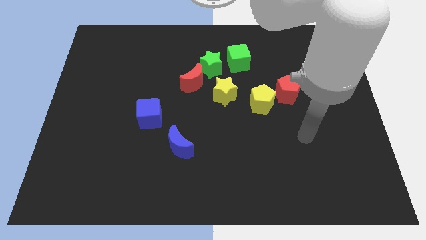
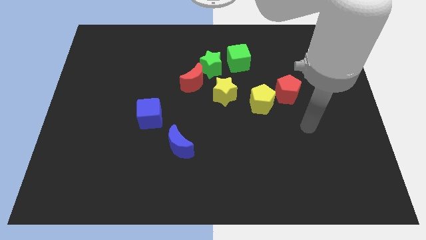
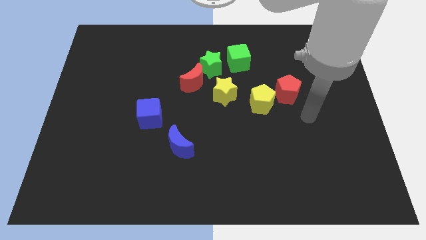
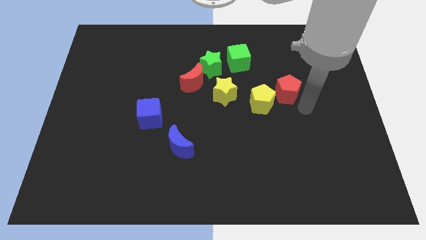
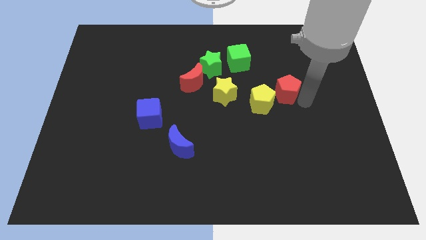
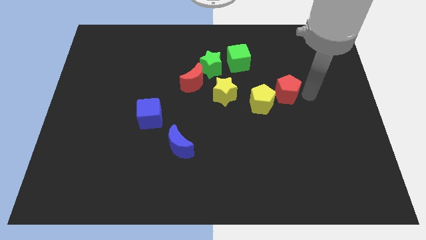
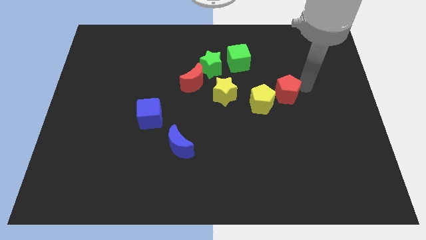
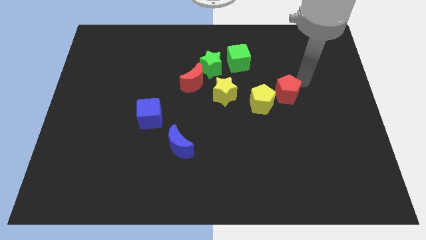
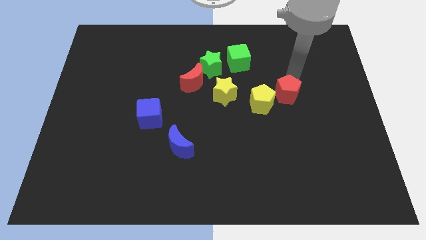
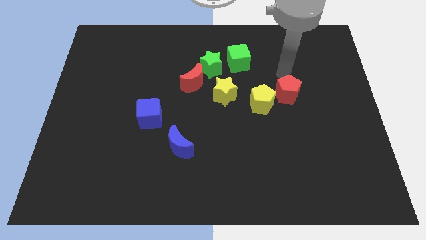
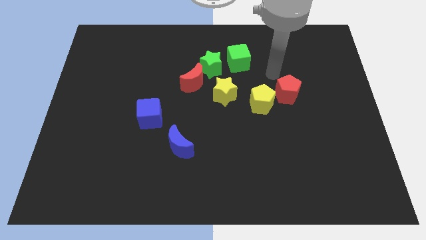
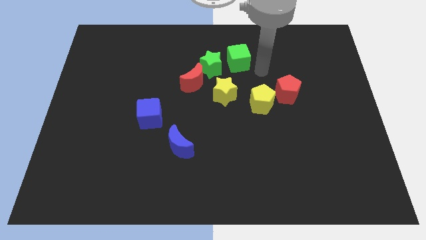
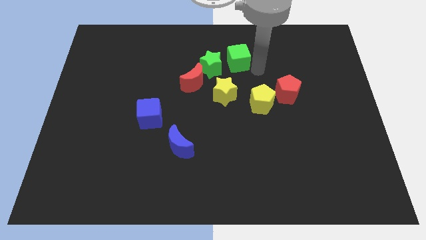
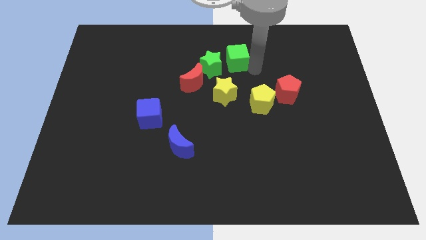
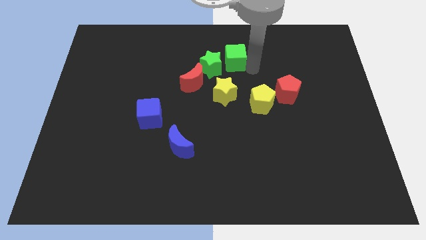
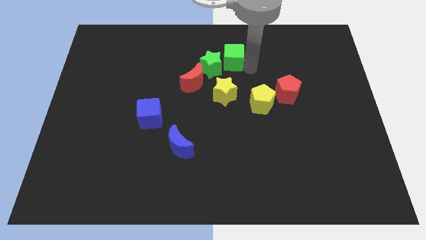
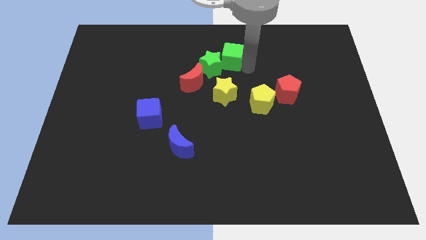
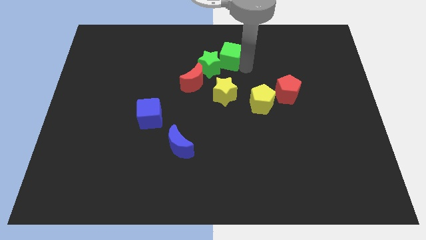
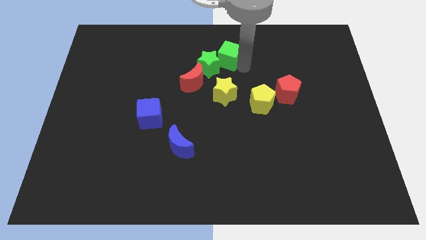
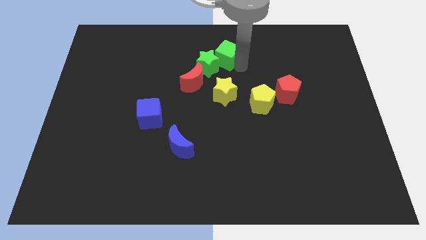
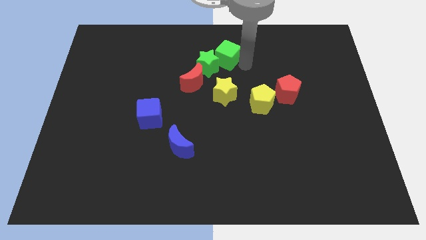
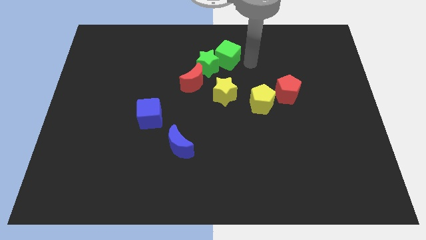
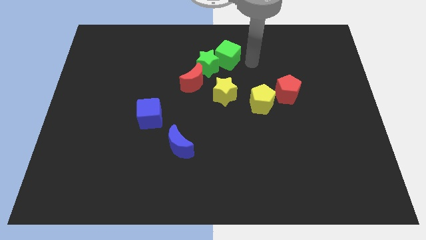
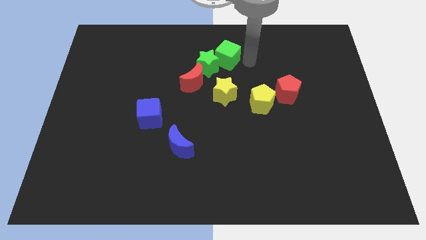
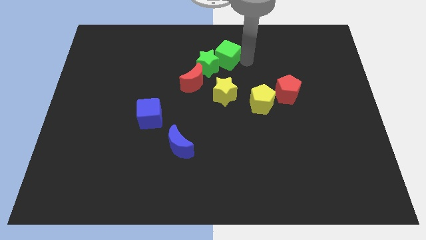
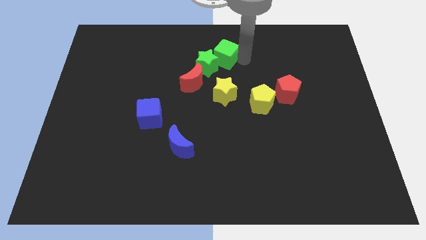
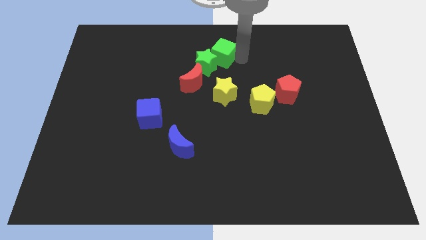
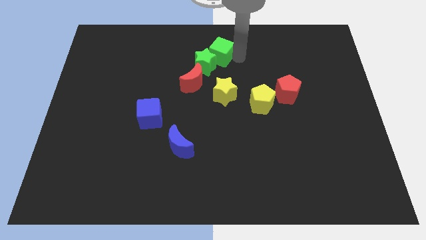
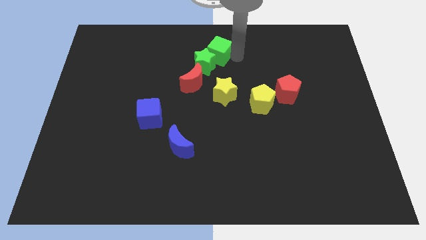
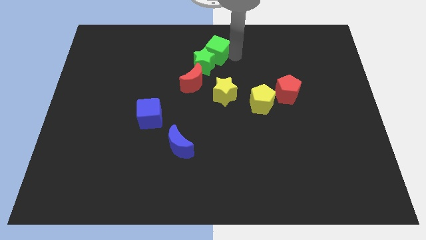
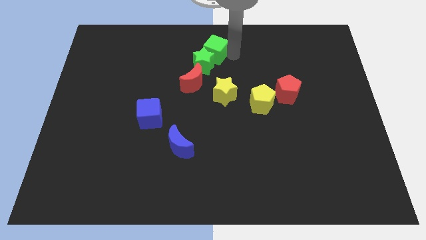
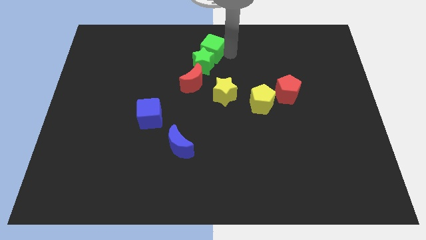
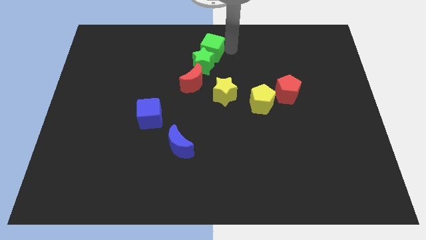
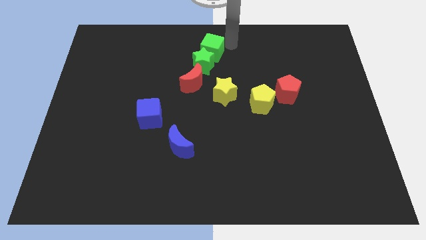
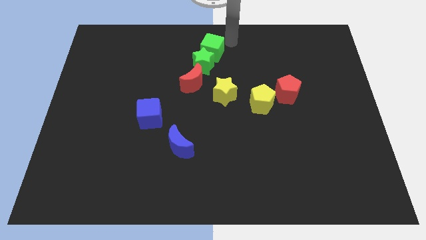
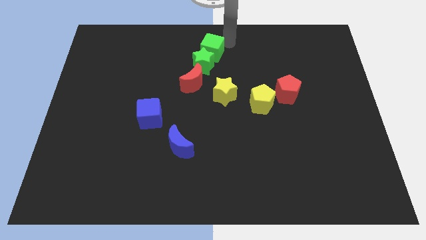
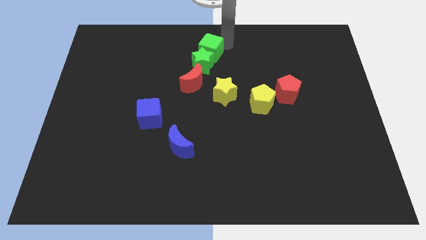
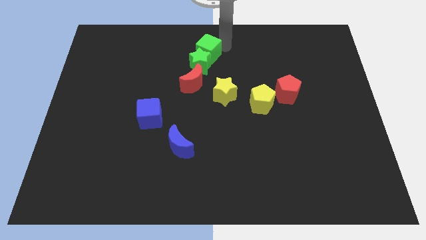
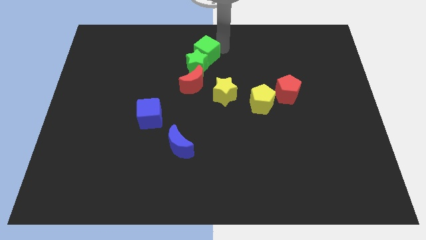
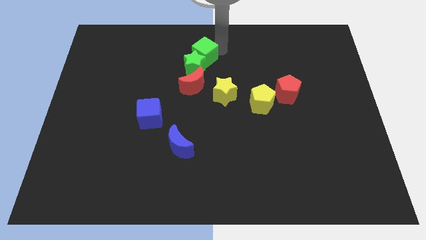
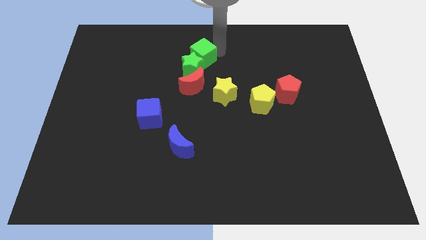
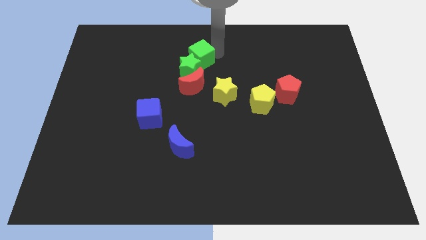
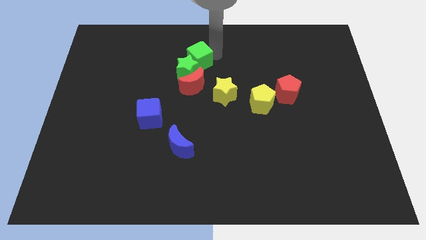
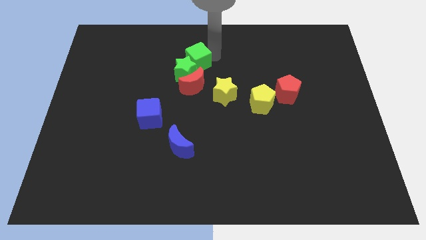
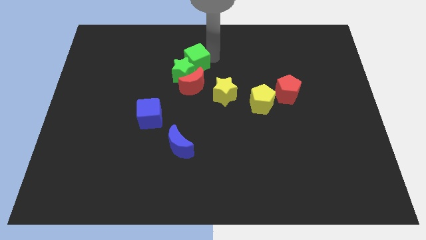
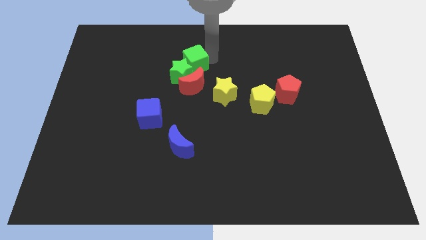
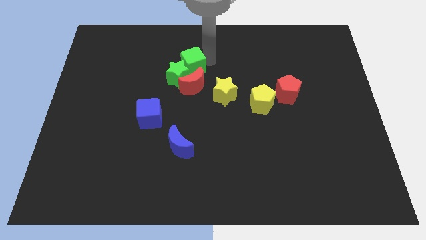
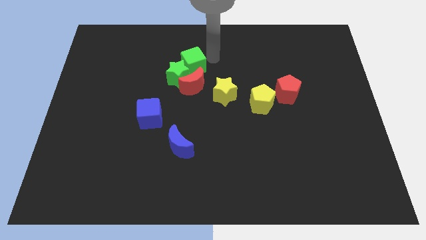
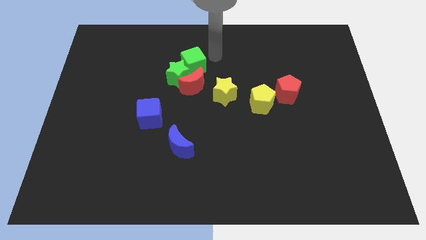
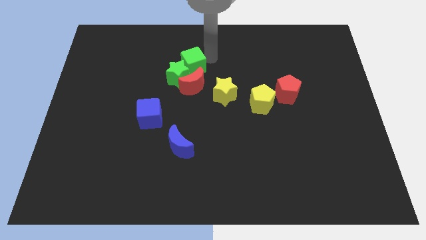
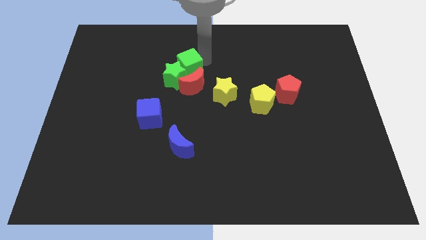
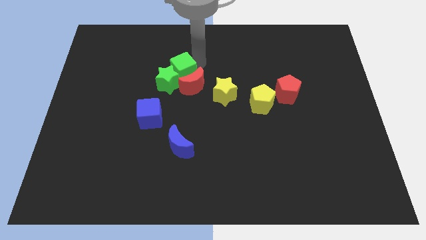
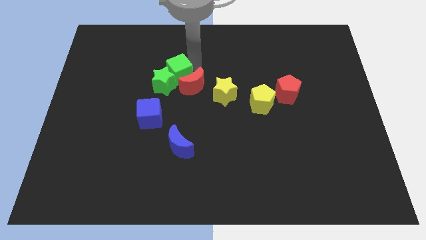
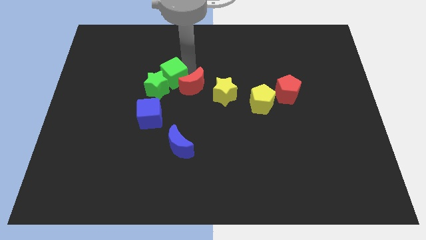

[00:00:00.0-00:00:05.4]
put the green cube to the top side of the blue cube

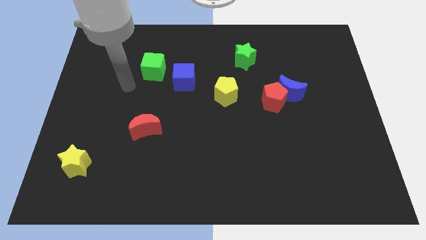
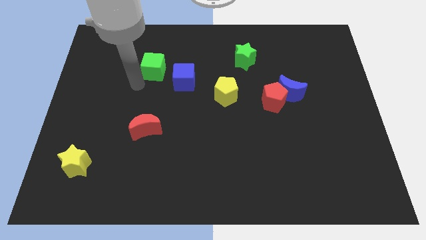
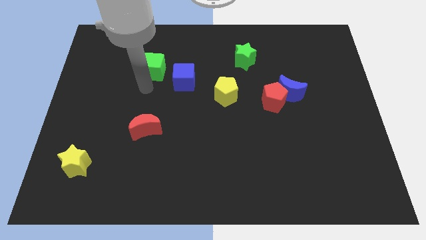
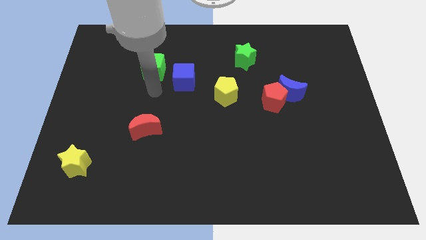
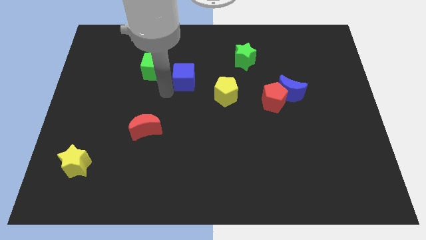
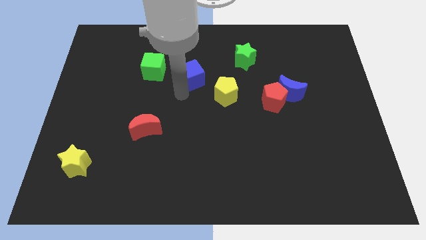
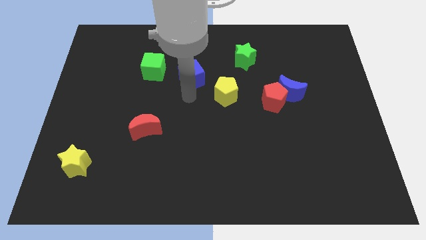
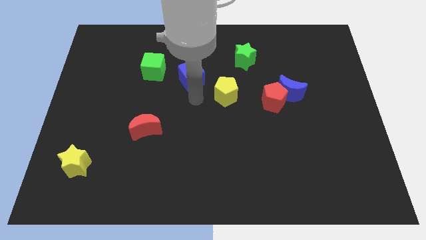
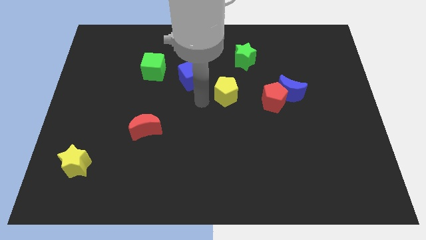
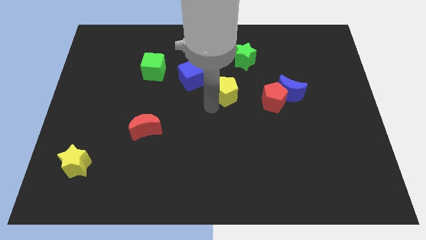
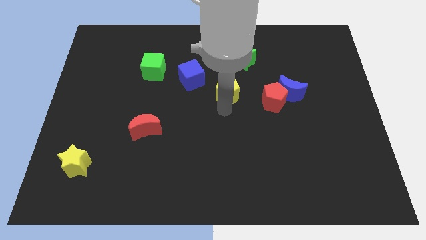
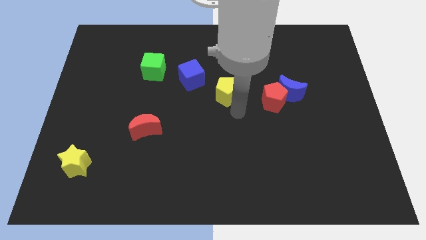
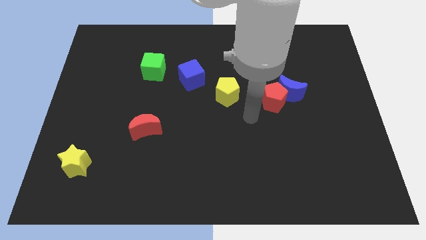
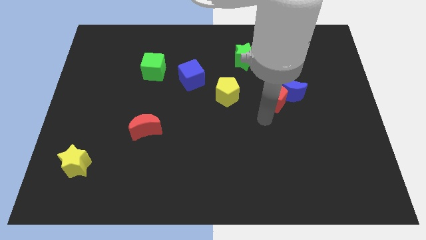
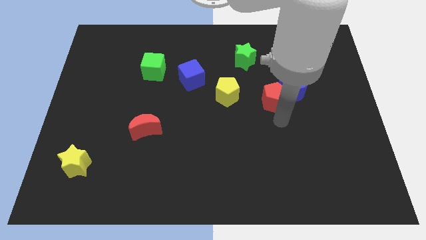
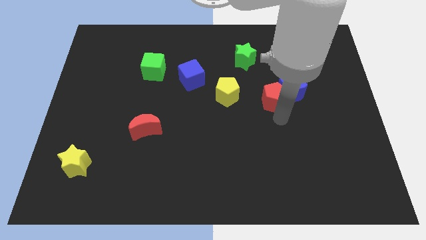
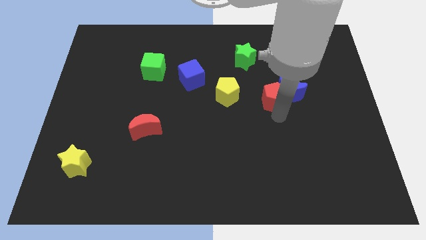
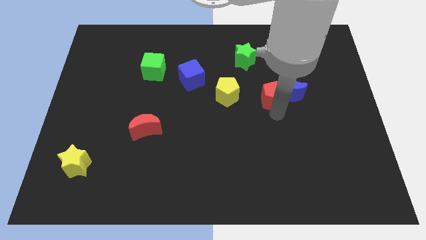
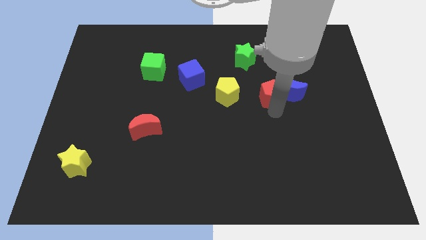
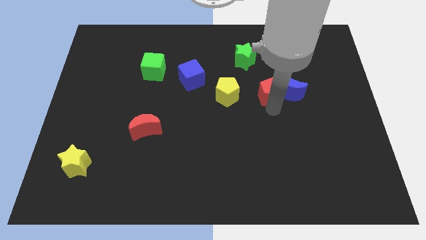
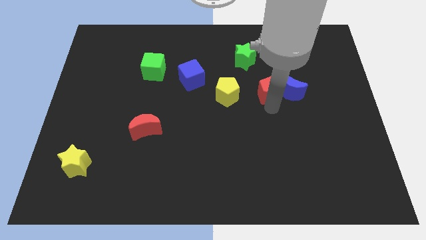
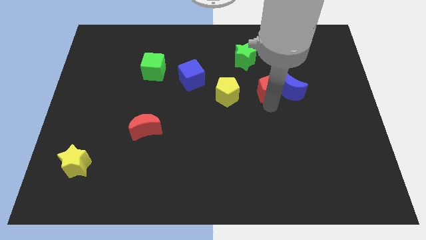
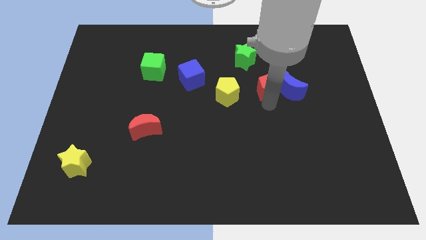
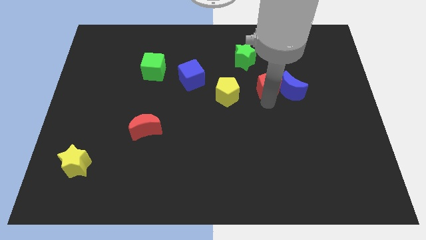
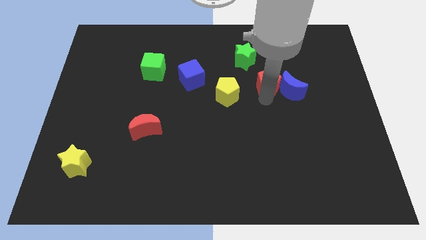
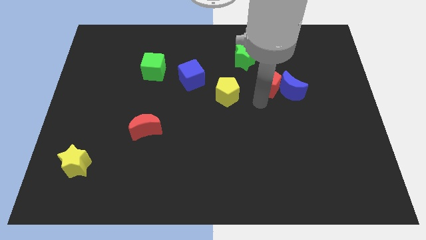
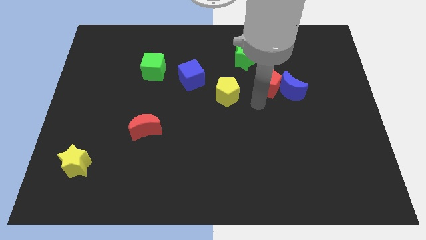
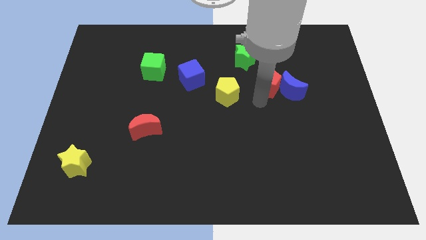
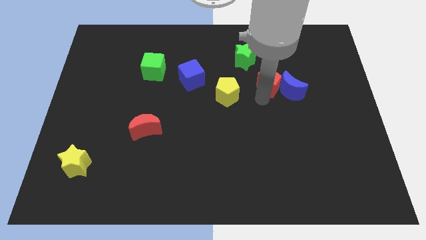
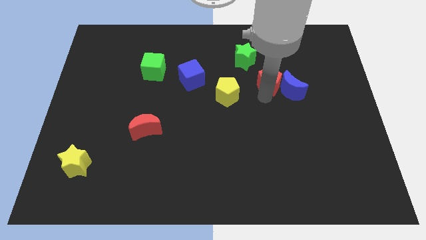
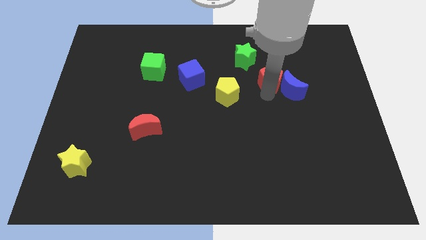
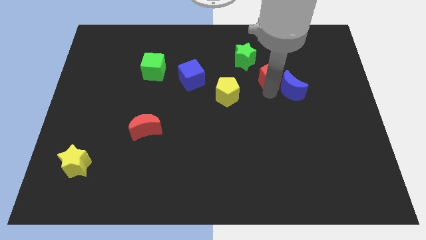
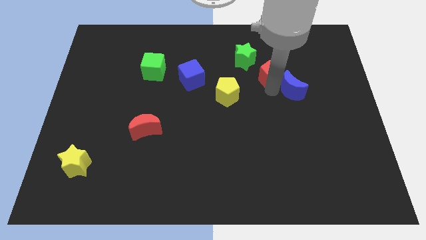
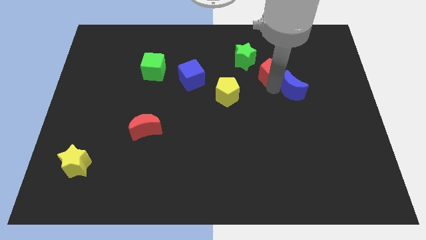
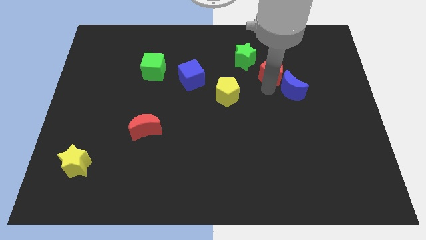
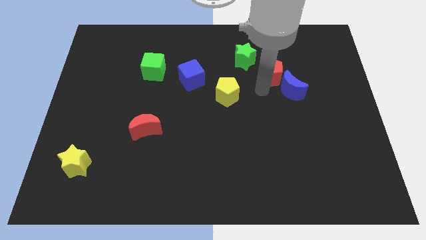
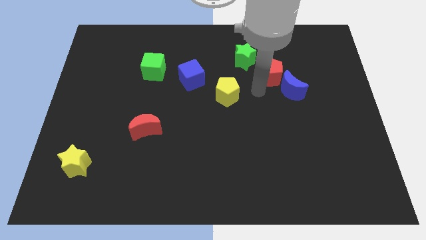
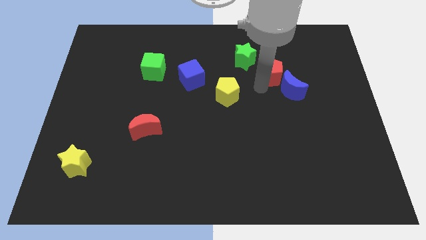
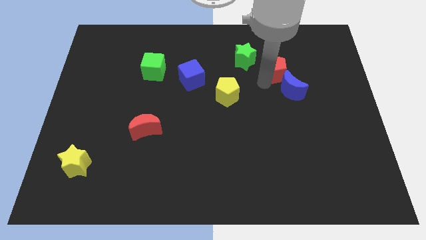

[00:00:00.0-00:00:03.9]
move the red pentagon just right of the green star
